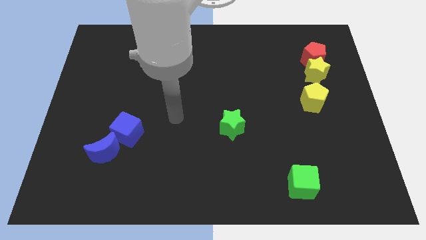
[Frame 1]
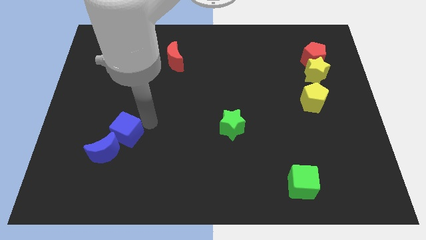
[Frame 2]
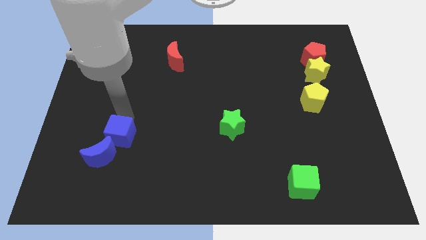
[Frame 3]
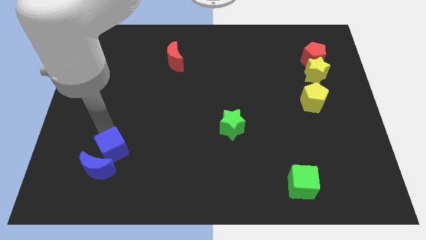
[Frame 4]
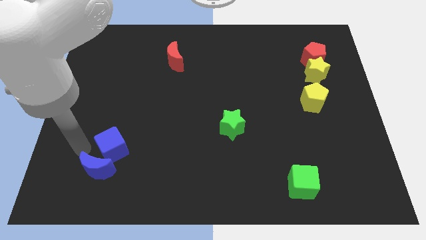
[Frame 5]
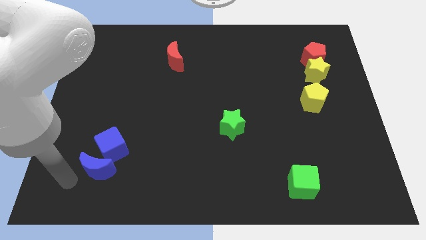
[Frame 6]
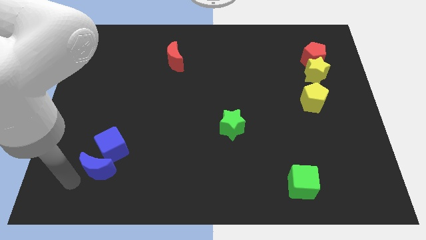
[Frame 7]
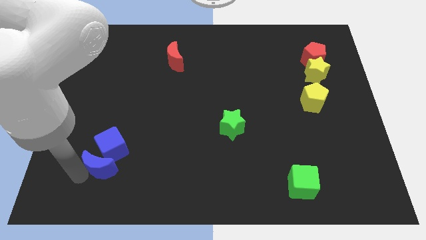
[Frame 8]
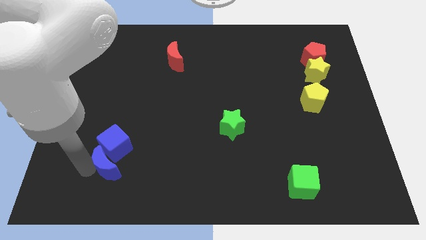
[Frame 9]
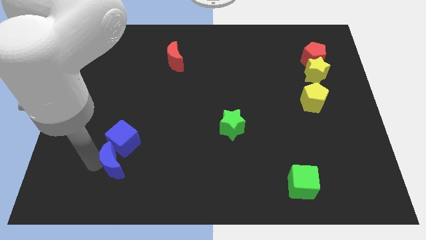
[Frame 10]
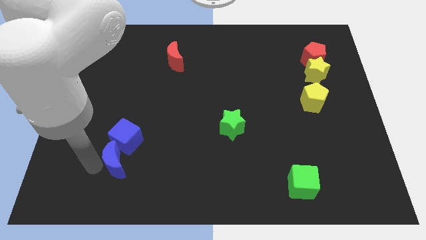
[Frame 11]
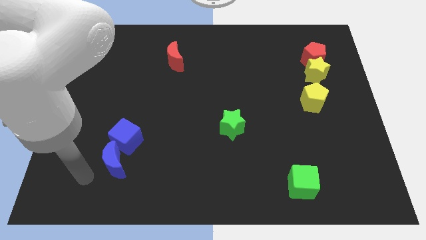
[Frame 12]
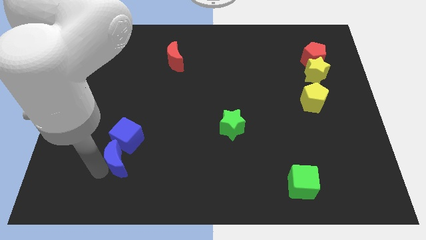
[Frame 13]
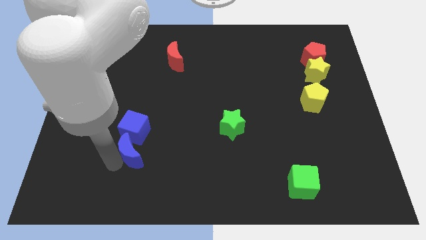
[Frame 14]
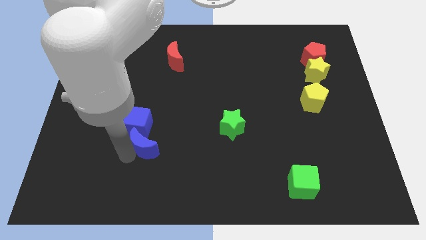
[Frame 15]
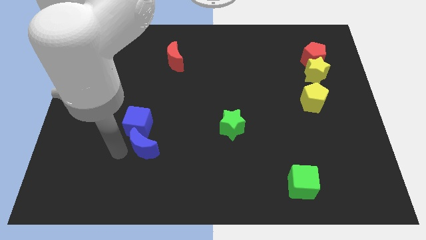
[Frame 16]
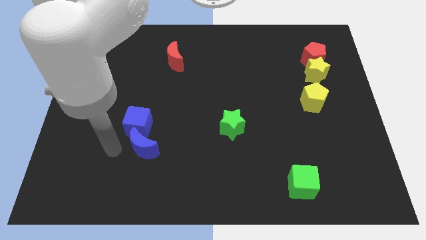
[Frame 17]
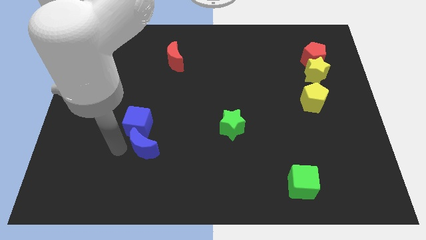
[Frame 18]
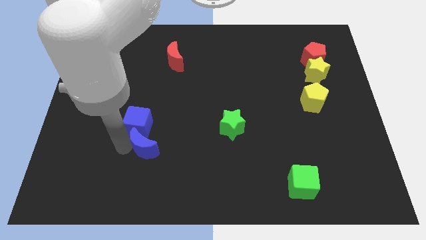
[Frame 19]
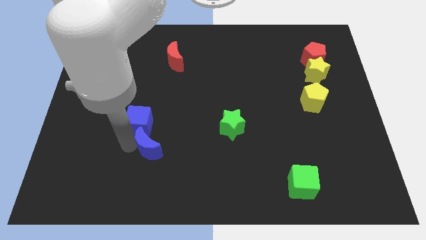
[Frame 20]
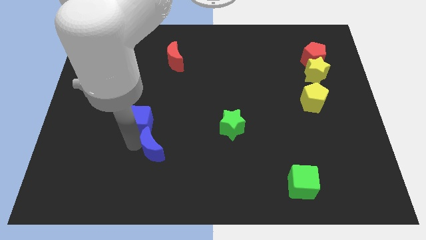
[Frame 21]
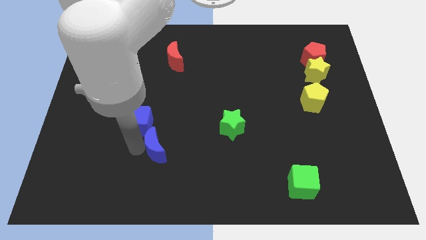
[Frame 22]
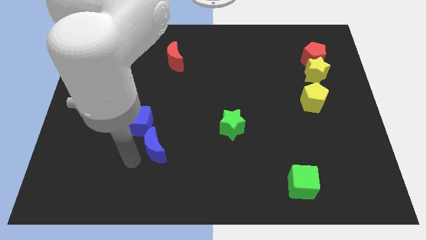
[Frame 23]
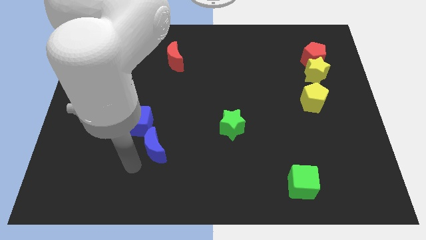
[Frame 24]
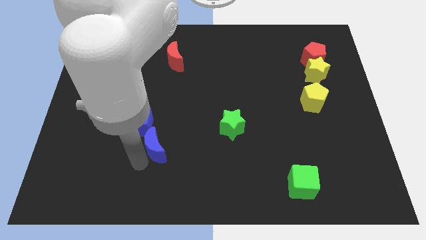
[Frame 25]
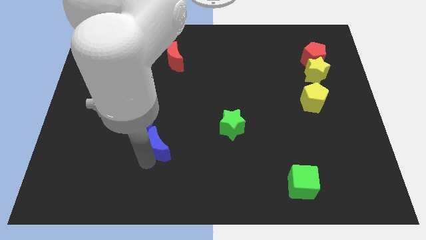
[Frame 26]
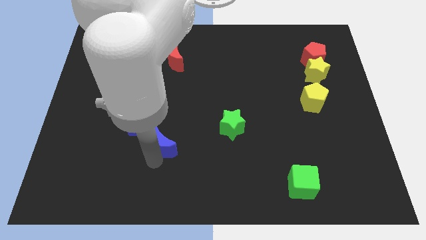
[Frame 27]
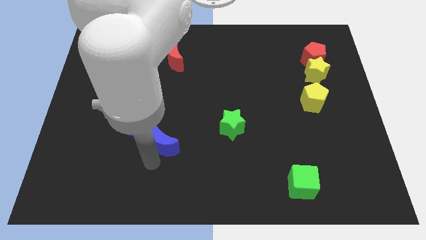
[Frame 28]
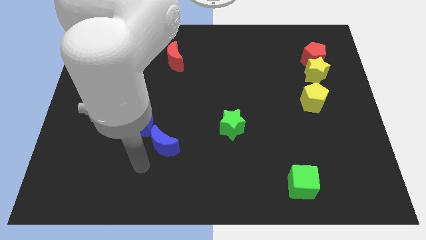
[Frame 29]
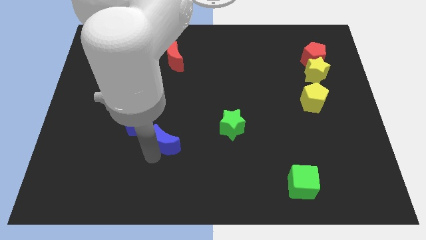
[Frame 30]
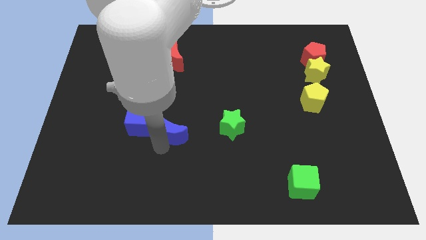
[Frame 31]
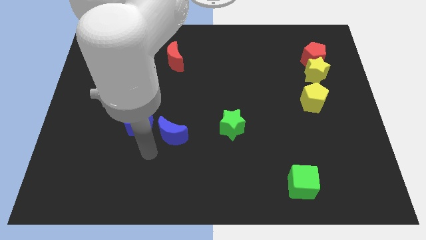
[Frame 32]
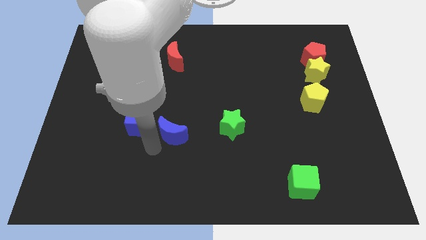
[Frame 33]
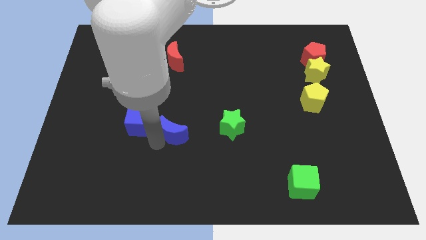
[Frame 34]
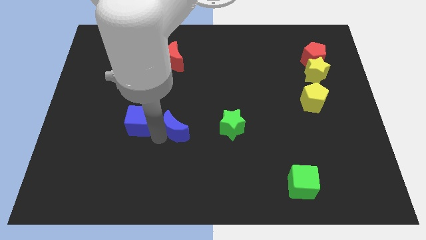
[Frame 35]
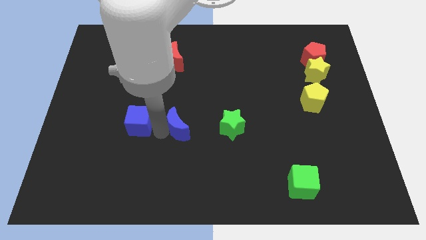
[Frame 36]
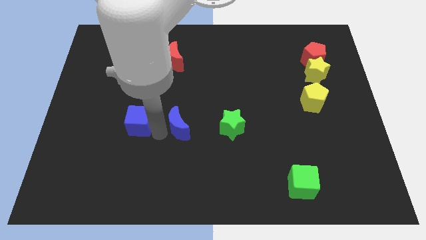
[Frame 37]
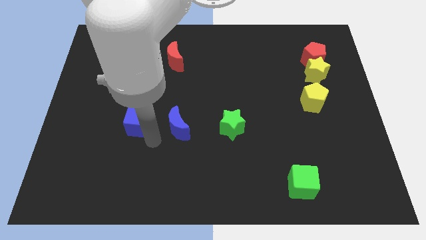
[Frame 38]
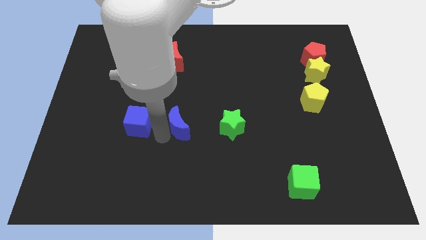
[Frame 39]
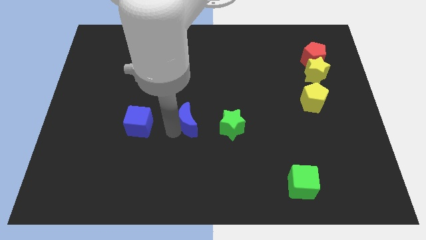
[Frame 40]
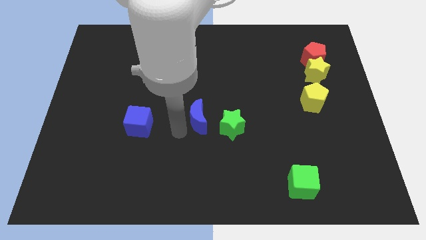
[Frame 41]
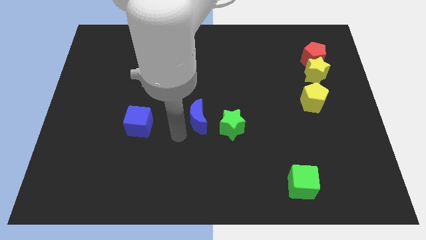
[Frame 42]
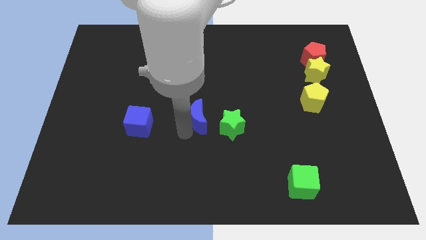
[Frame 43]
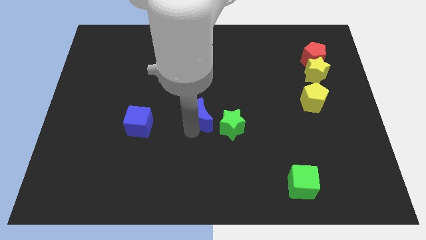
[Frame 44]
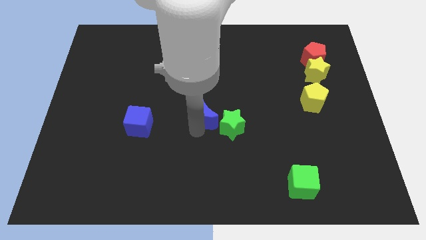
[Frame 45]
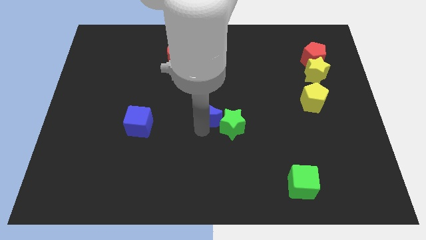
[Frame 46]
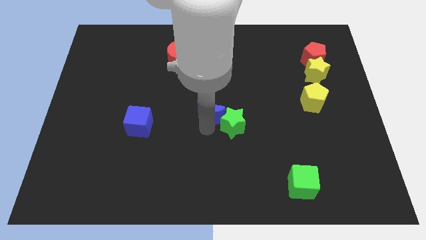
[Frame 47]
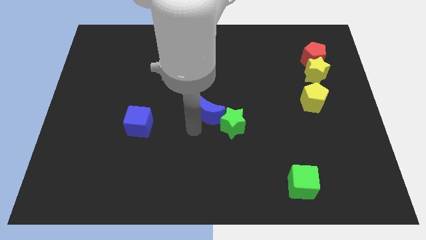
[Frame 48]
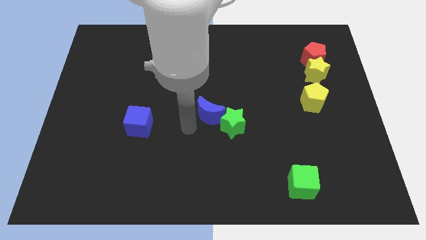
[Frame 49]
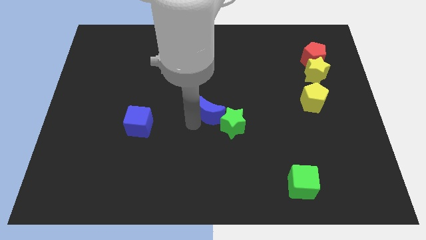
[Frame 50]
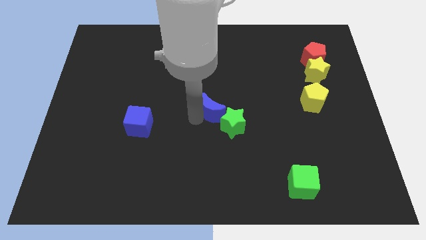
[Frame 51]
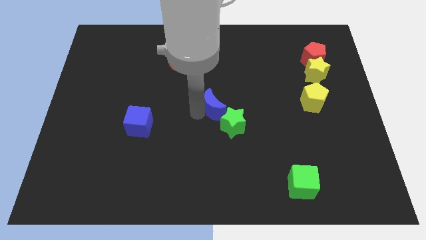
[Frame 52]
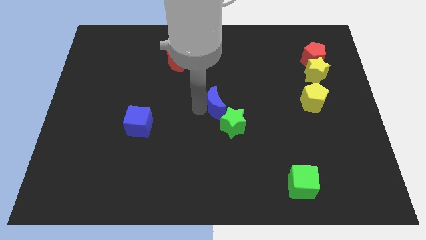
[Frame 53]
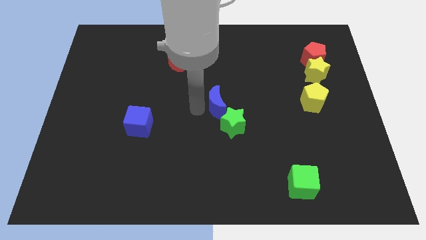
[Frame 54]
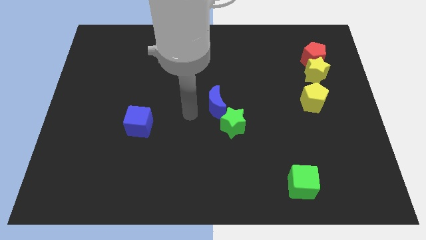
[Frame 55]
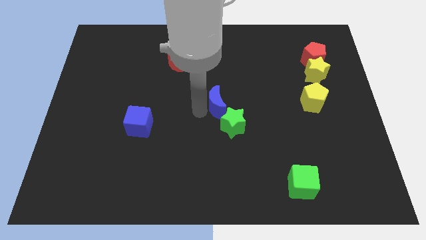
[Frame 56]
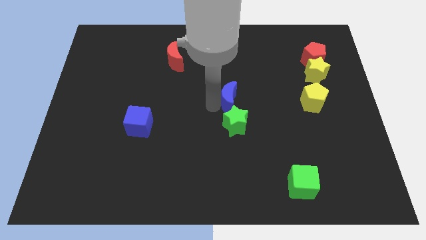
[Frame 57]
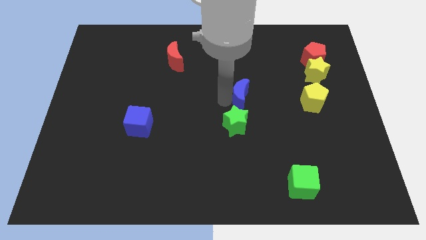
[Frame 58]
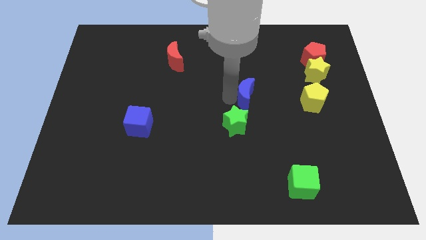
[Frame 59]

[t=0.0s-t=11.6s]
push the blue moon to the left side of the yellow pentagon

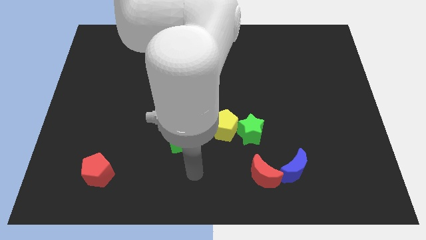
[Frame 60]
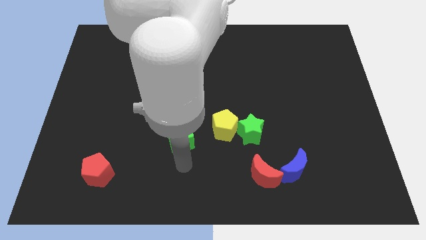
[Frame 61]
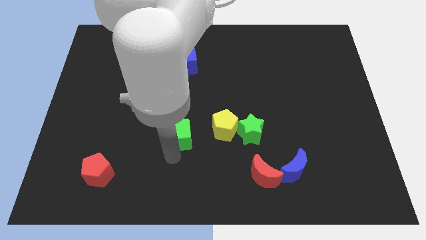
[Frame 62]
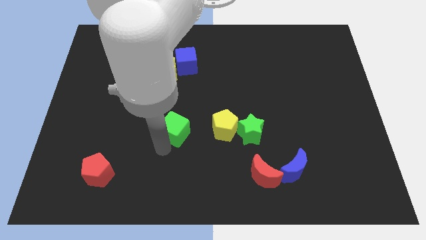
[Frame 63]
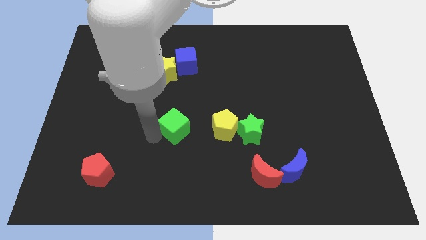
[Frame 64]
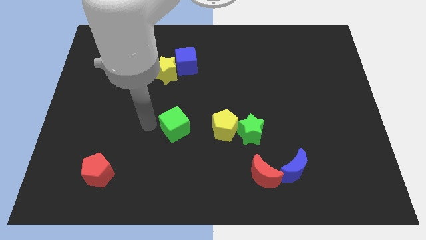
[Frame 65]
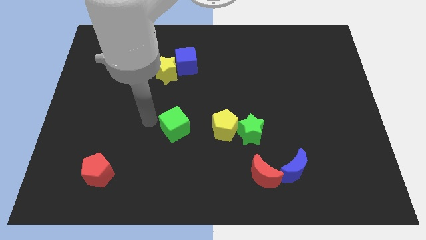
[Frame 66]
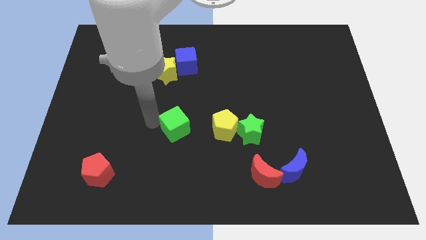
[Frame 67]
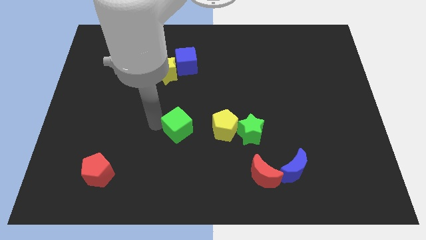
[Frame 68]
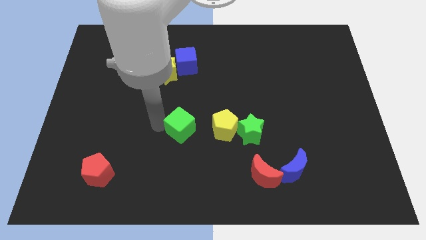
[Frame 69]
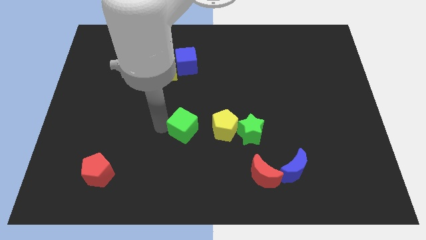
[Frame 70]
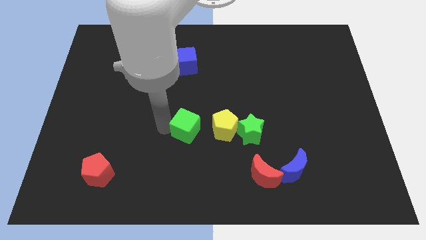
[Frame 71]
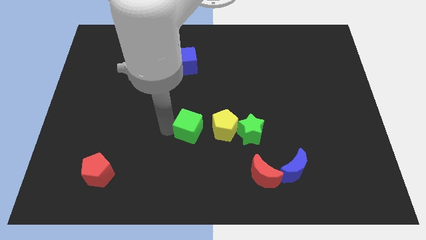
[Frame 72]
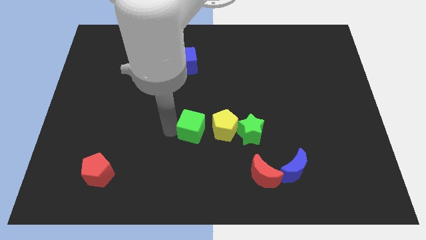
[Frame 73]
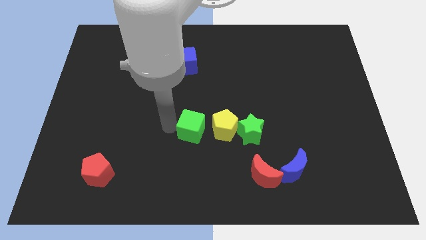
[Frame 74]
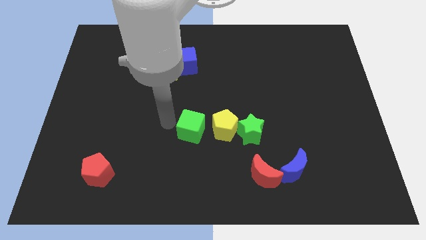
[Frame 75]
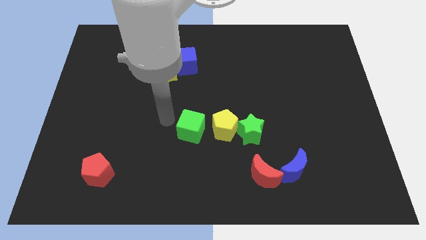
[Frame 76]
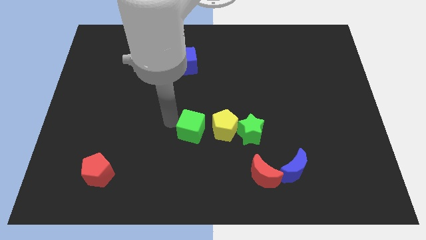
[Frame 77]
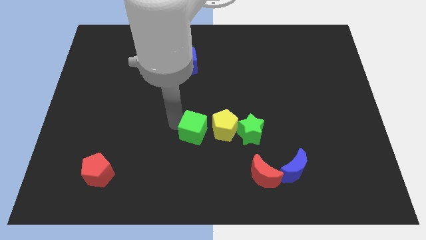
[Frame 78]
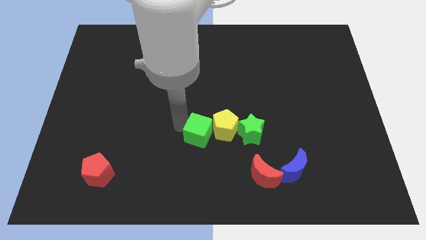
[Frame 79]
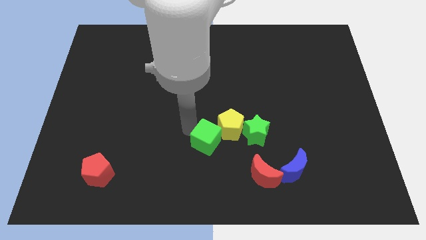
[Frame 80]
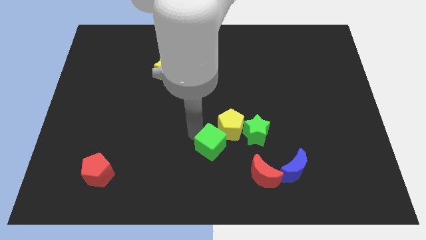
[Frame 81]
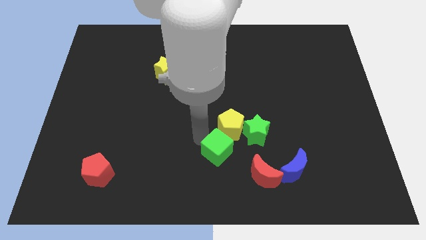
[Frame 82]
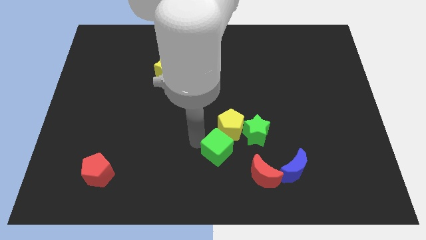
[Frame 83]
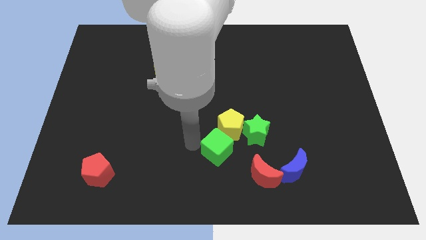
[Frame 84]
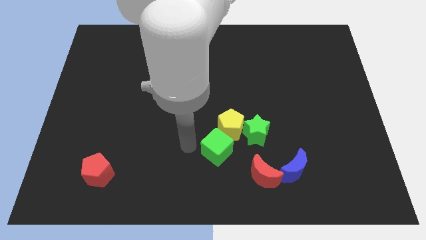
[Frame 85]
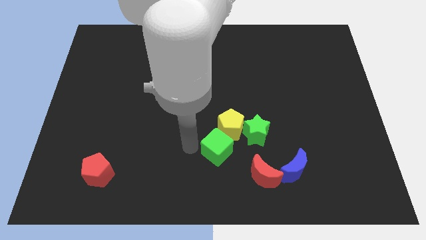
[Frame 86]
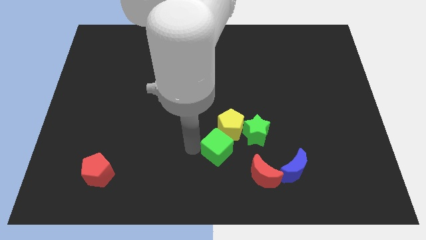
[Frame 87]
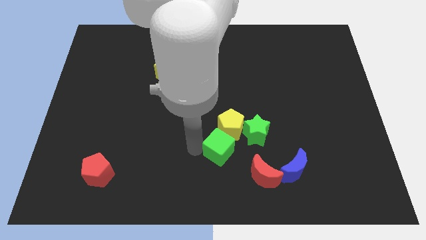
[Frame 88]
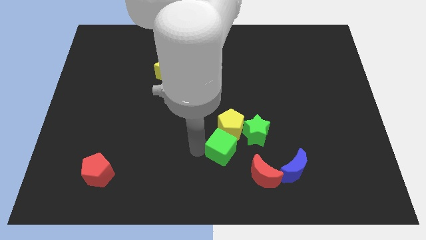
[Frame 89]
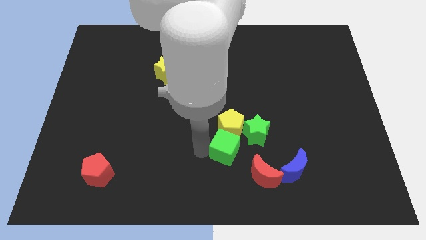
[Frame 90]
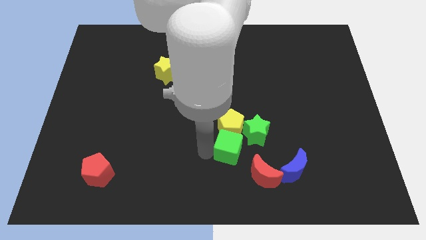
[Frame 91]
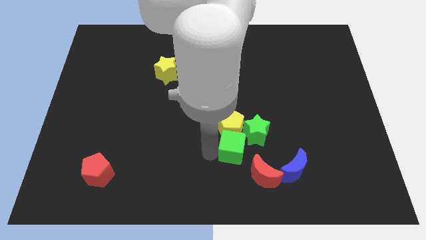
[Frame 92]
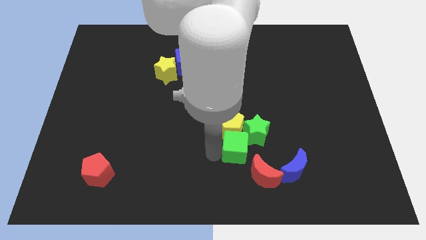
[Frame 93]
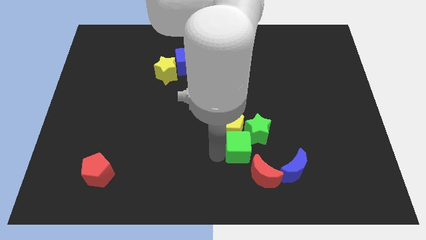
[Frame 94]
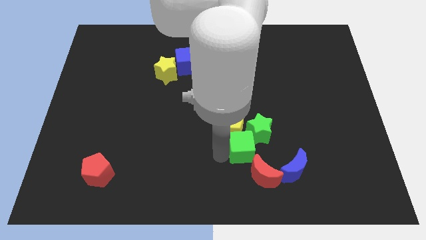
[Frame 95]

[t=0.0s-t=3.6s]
slide the green cube to the top left side of the blue moon
